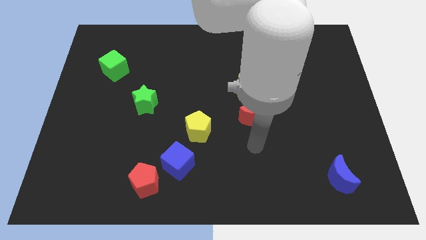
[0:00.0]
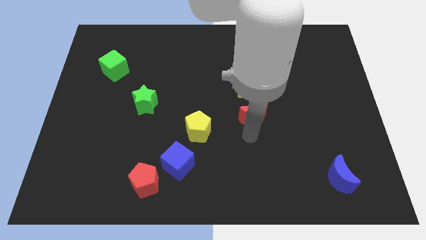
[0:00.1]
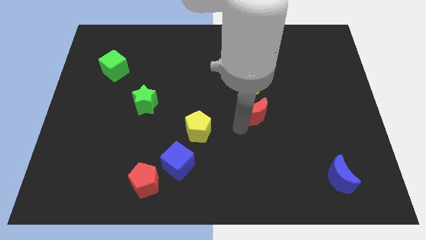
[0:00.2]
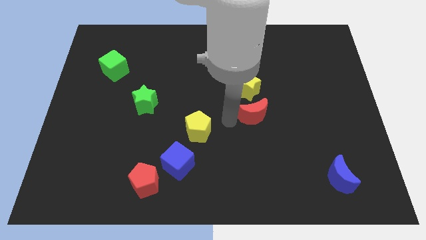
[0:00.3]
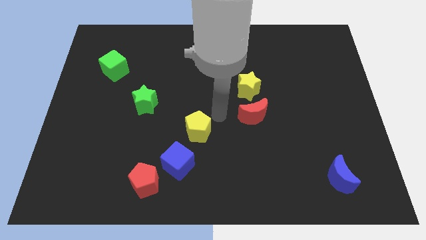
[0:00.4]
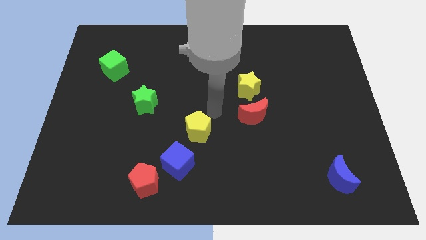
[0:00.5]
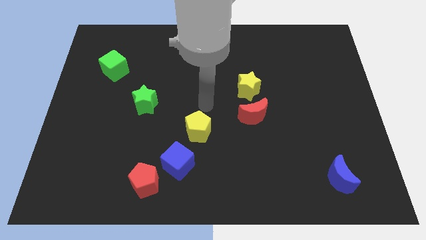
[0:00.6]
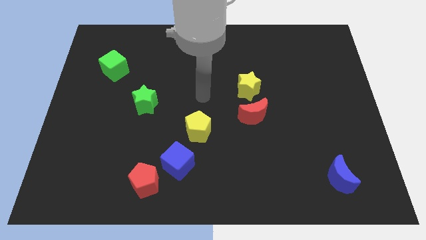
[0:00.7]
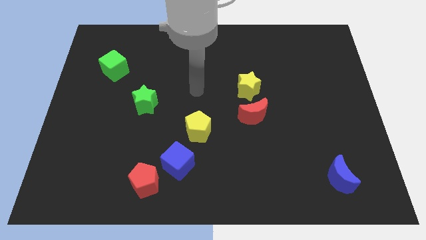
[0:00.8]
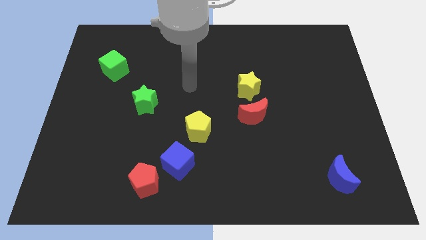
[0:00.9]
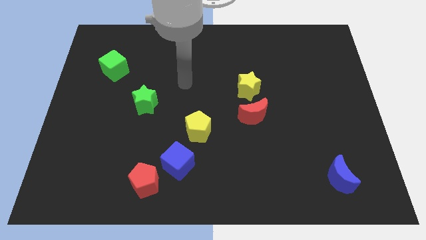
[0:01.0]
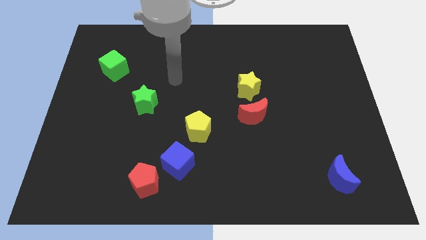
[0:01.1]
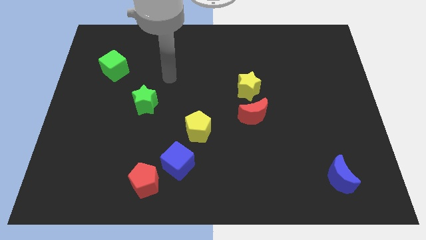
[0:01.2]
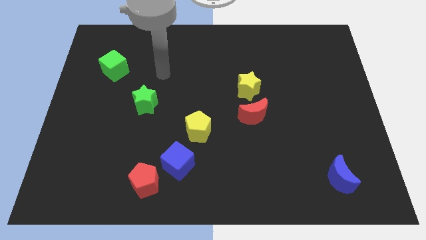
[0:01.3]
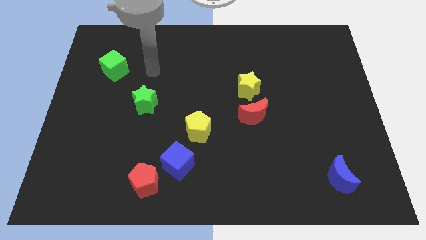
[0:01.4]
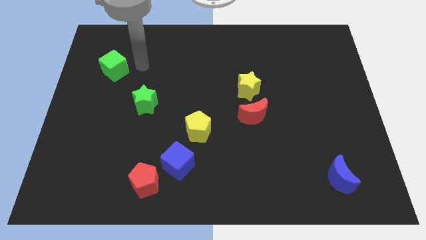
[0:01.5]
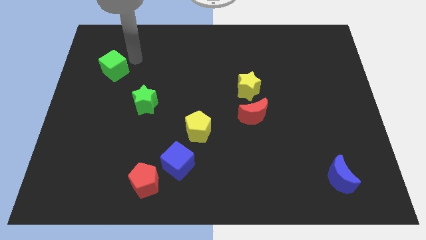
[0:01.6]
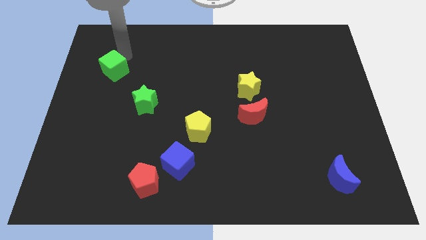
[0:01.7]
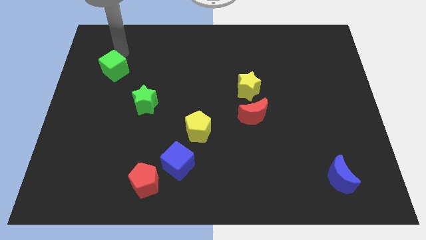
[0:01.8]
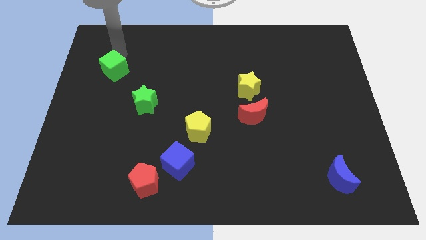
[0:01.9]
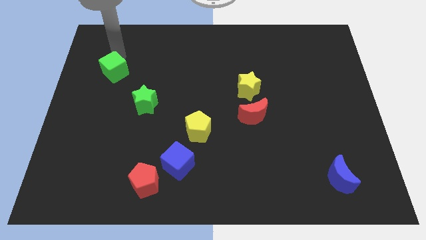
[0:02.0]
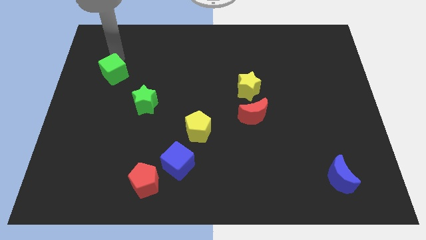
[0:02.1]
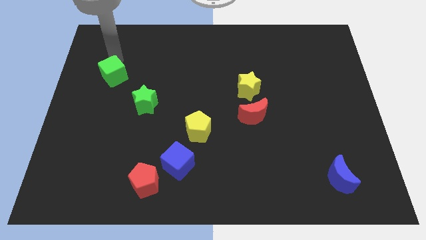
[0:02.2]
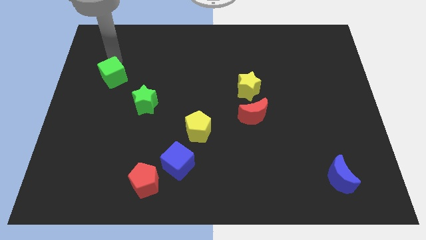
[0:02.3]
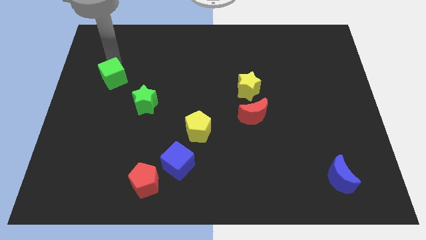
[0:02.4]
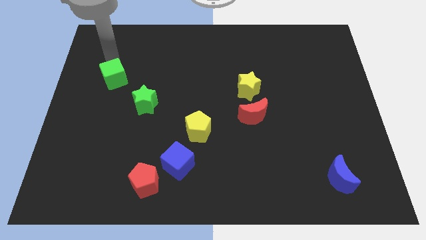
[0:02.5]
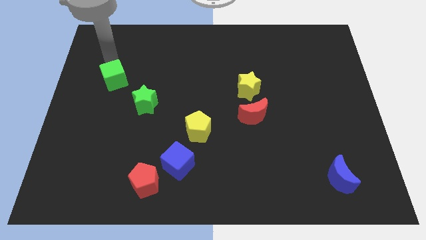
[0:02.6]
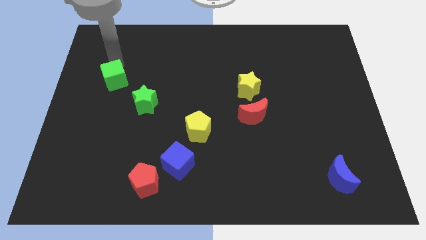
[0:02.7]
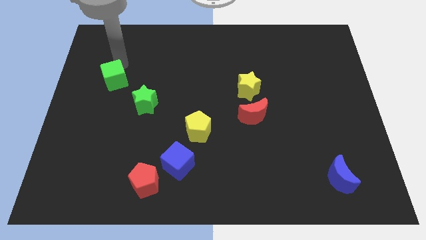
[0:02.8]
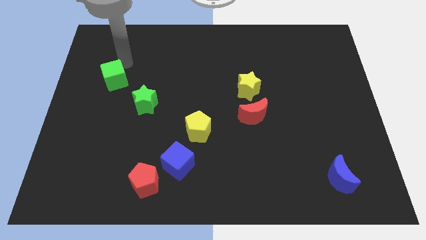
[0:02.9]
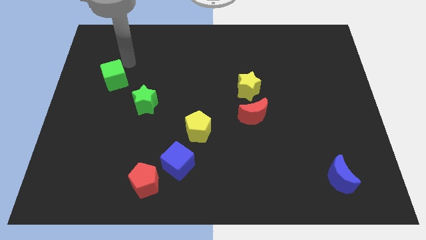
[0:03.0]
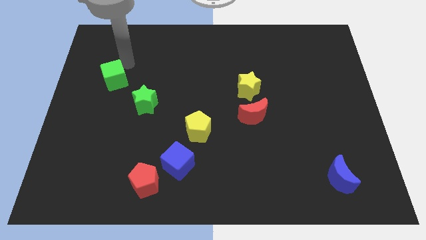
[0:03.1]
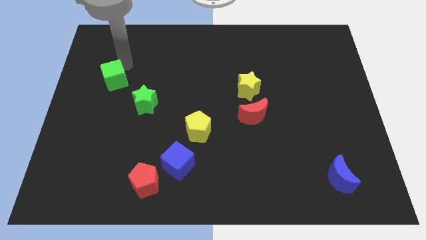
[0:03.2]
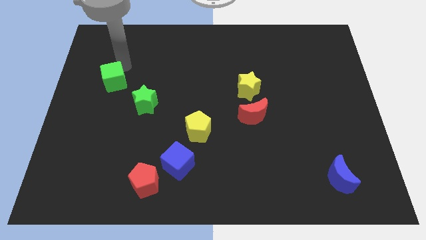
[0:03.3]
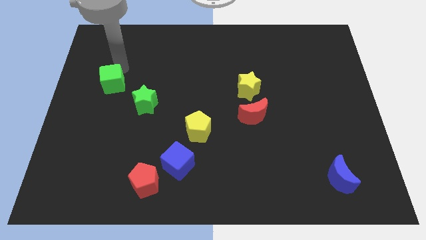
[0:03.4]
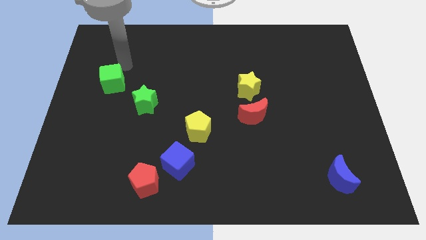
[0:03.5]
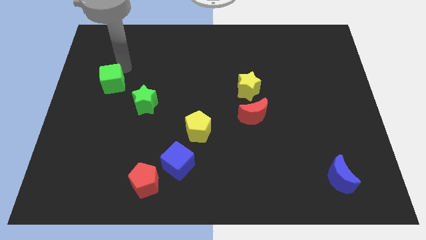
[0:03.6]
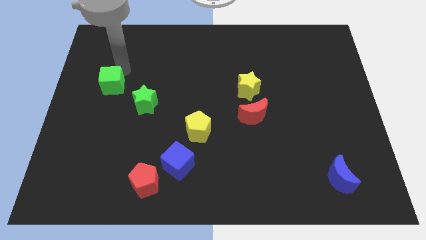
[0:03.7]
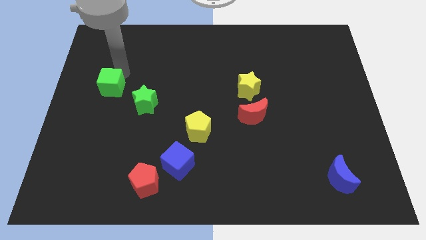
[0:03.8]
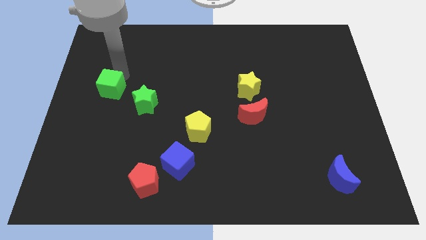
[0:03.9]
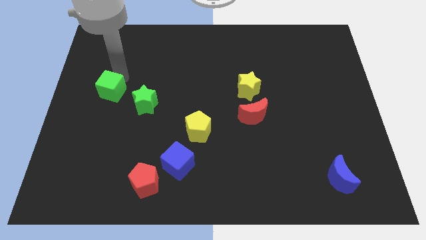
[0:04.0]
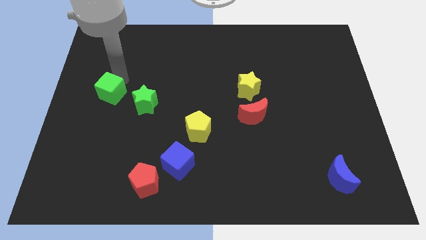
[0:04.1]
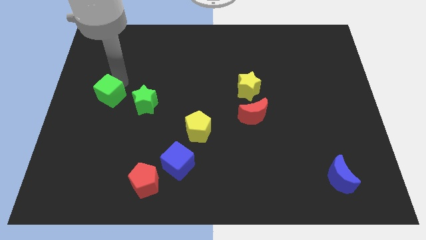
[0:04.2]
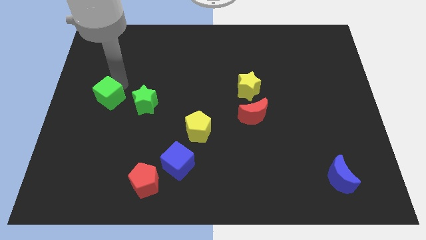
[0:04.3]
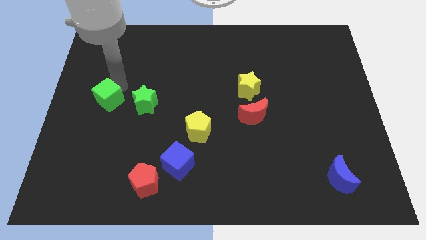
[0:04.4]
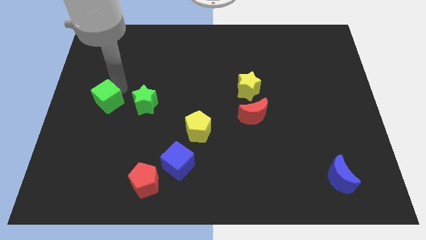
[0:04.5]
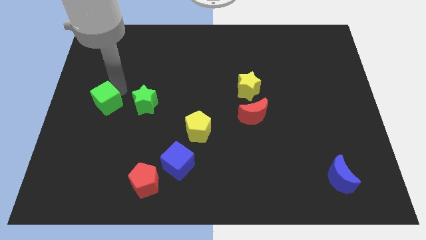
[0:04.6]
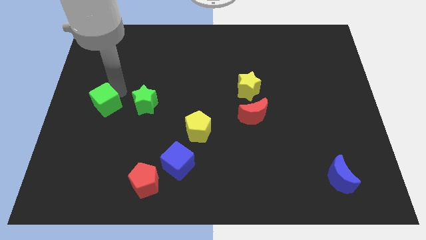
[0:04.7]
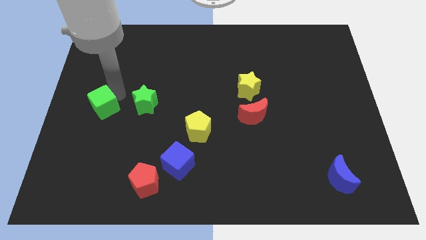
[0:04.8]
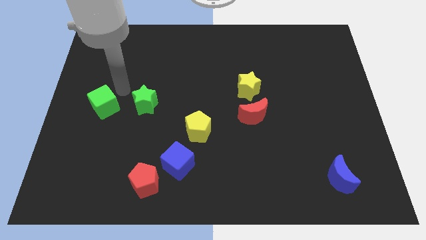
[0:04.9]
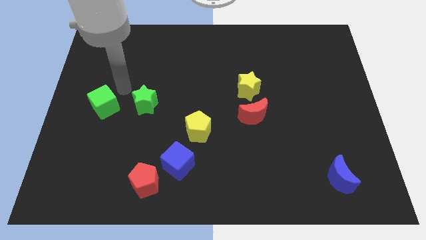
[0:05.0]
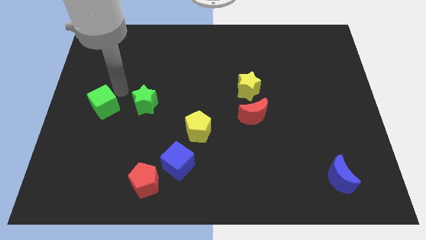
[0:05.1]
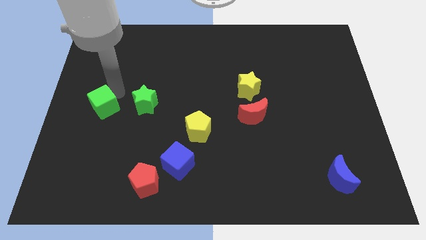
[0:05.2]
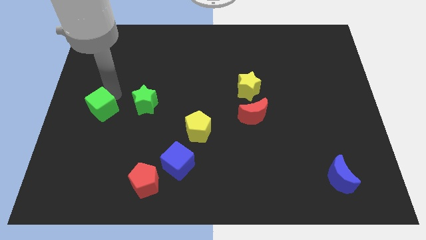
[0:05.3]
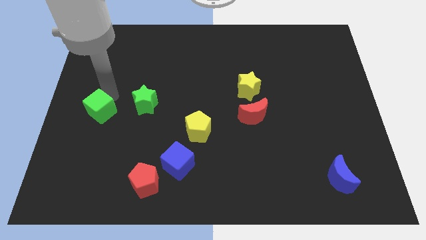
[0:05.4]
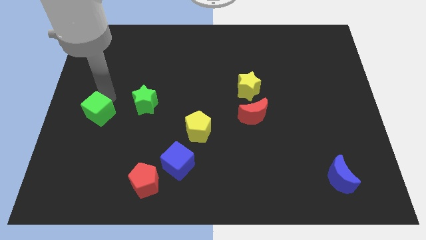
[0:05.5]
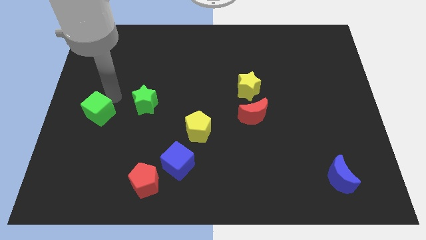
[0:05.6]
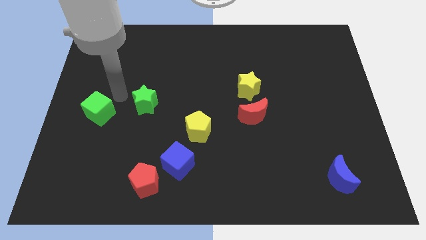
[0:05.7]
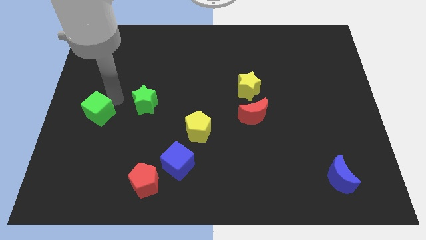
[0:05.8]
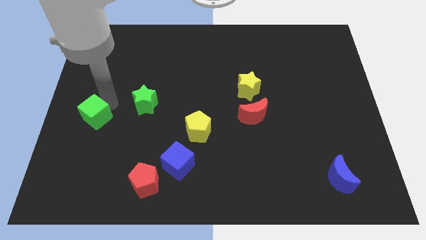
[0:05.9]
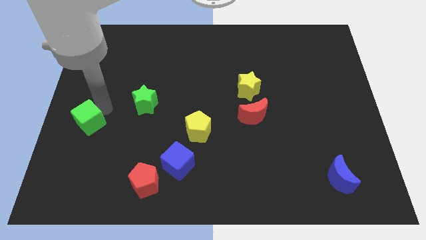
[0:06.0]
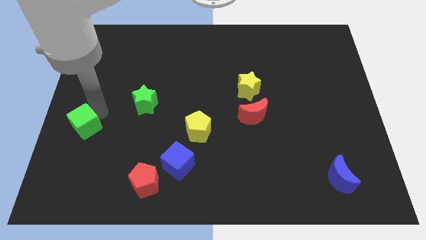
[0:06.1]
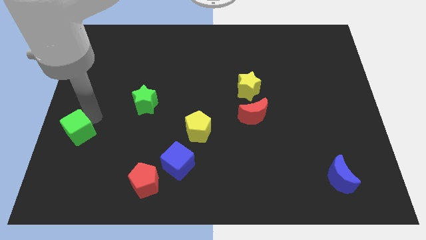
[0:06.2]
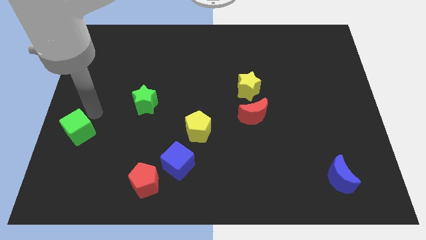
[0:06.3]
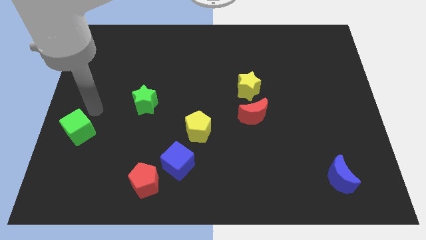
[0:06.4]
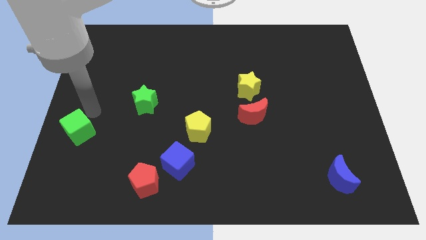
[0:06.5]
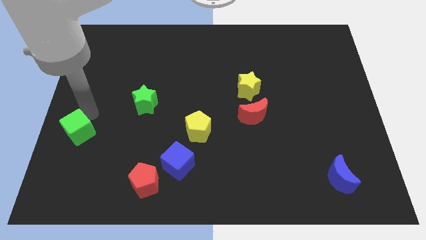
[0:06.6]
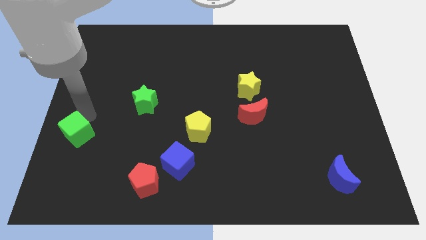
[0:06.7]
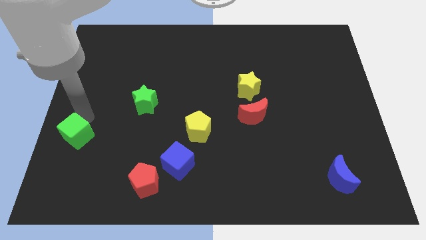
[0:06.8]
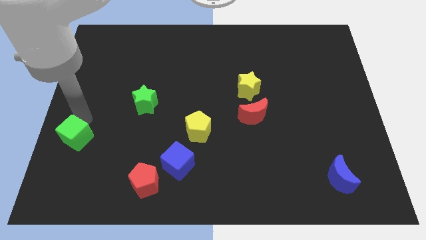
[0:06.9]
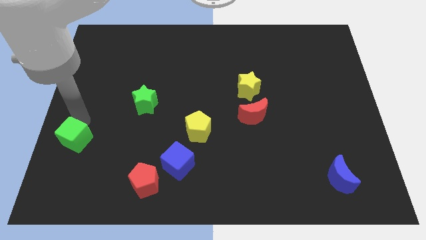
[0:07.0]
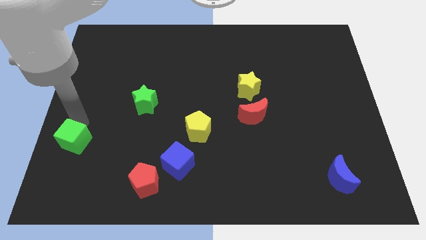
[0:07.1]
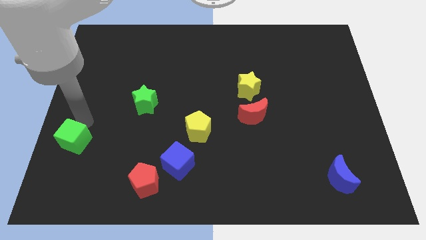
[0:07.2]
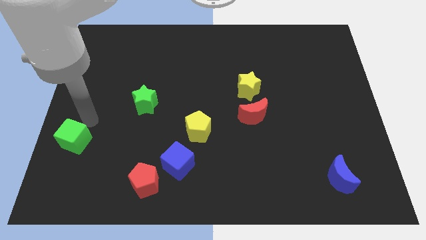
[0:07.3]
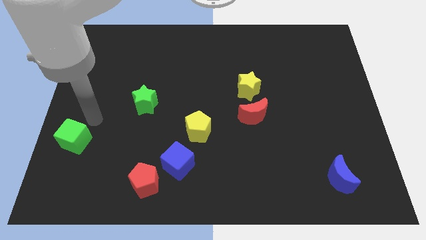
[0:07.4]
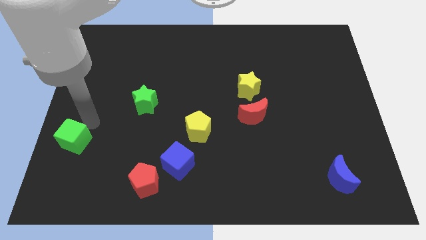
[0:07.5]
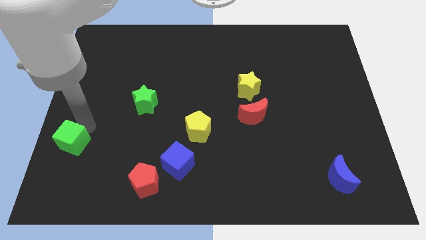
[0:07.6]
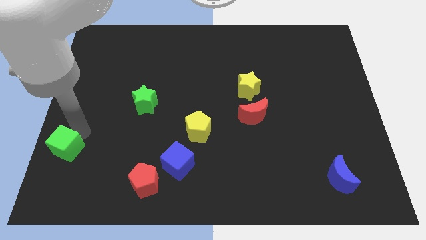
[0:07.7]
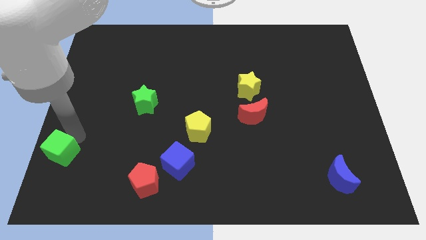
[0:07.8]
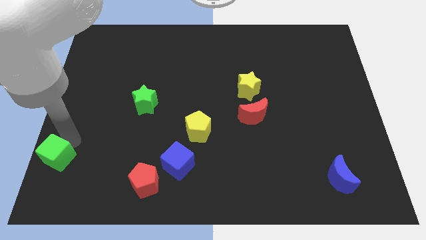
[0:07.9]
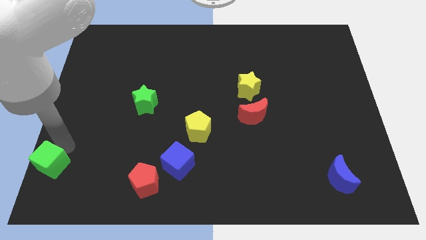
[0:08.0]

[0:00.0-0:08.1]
slide the green cube to the bottom left of the board
